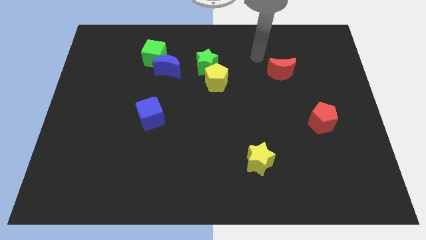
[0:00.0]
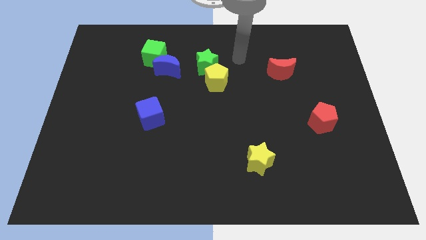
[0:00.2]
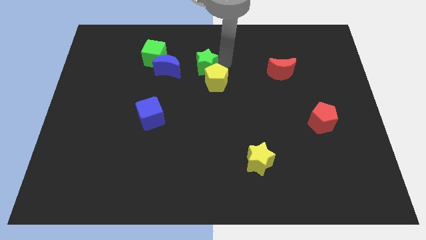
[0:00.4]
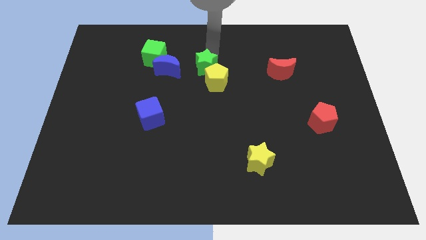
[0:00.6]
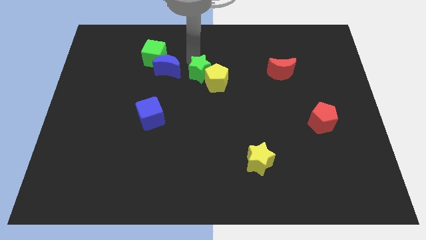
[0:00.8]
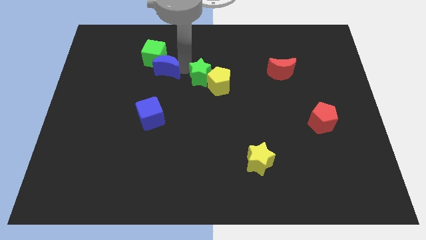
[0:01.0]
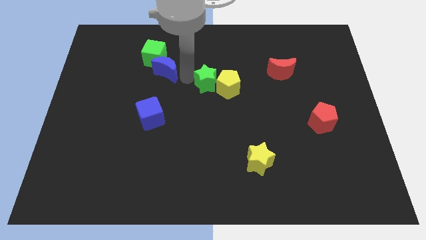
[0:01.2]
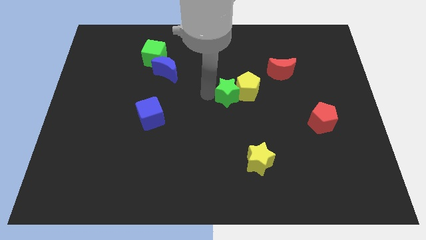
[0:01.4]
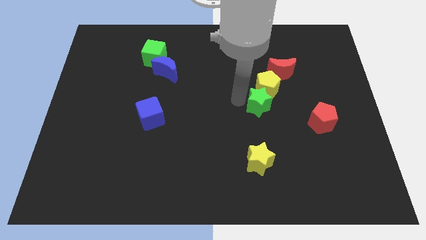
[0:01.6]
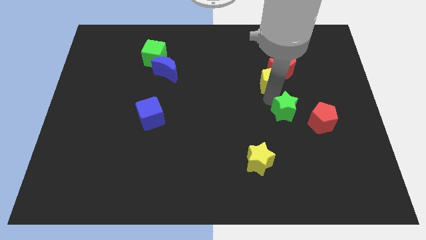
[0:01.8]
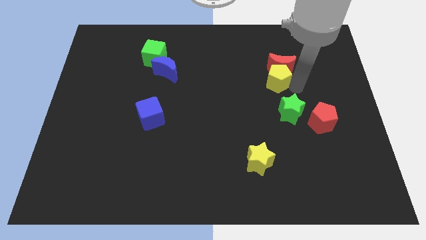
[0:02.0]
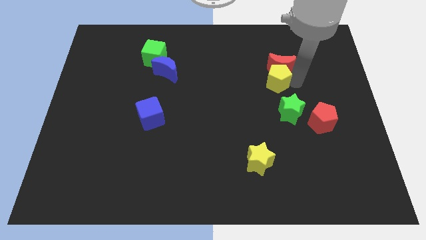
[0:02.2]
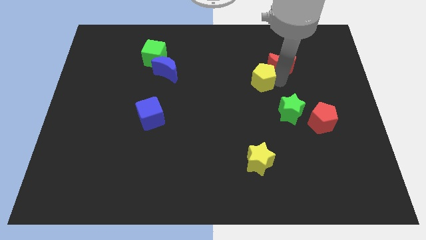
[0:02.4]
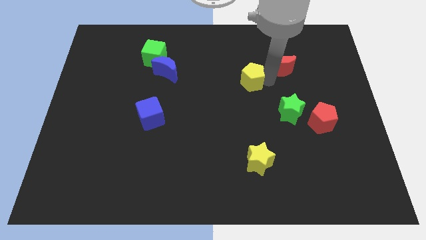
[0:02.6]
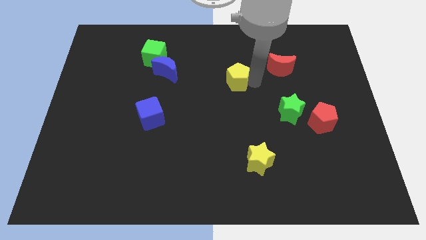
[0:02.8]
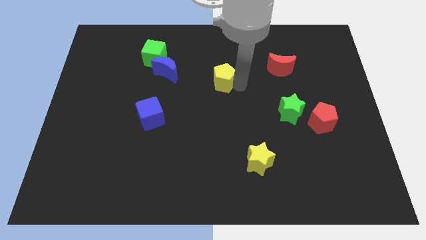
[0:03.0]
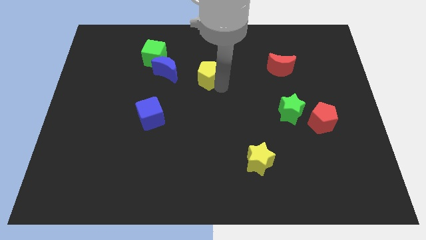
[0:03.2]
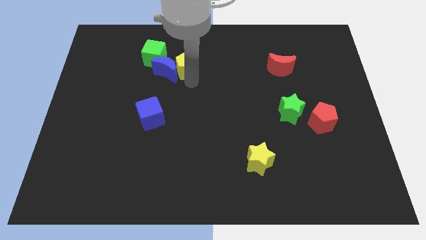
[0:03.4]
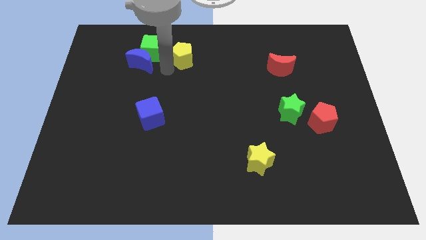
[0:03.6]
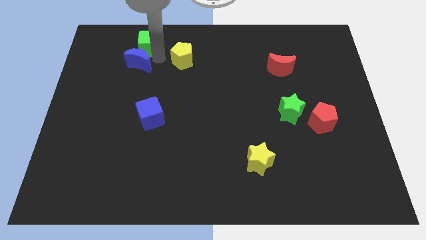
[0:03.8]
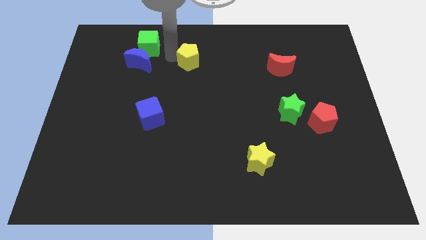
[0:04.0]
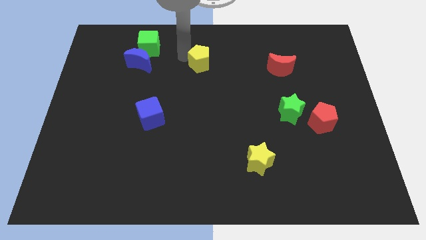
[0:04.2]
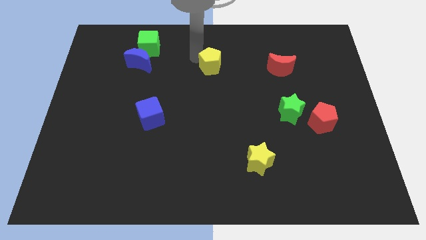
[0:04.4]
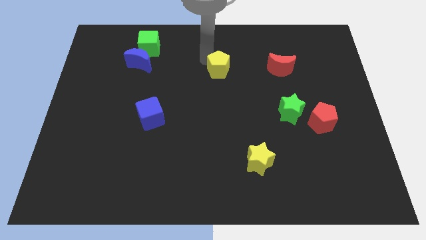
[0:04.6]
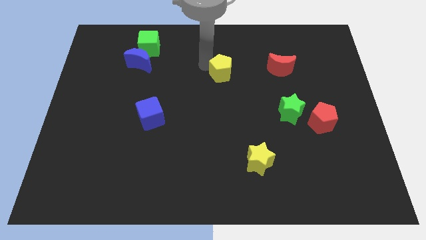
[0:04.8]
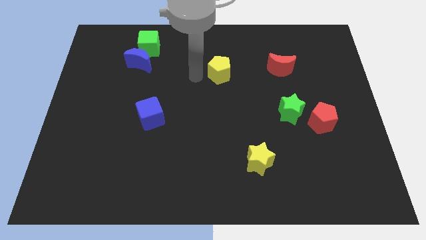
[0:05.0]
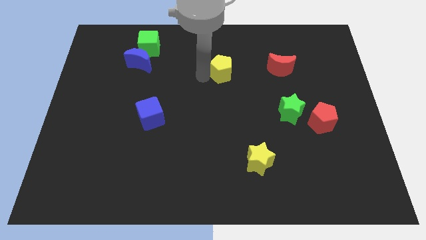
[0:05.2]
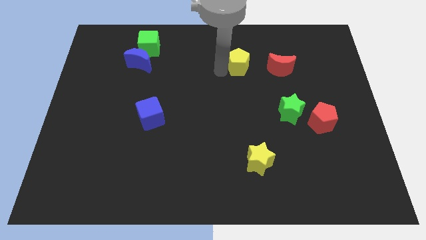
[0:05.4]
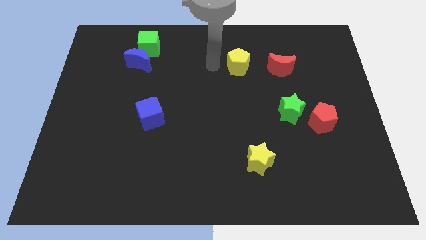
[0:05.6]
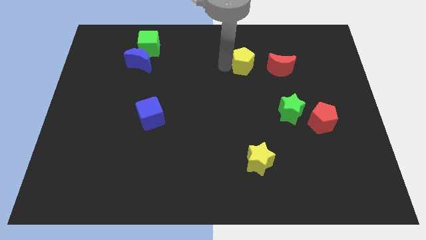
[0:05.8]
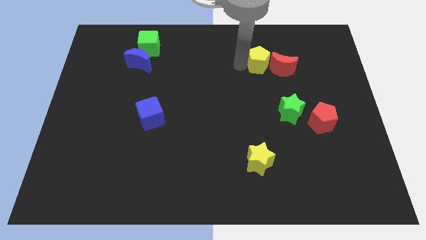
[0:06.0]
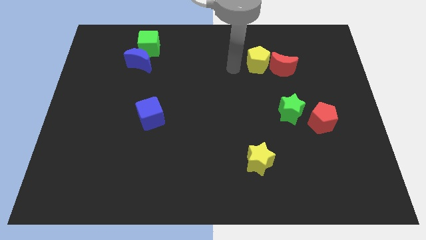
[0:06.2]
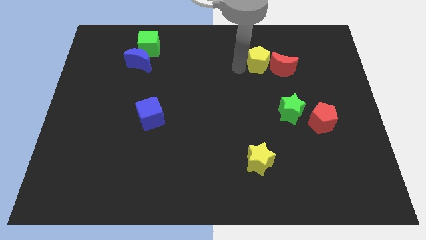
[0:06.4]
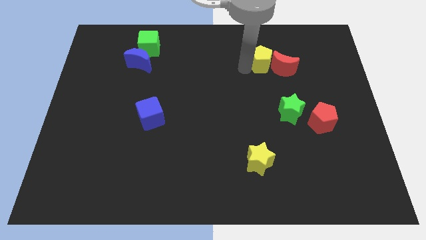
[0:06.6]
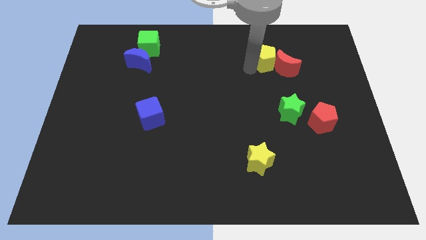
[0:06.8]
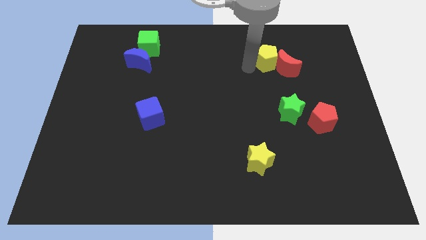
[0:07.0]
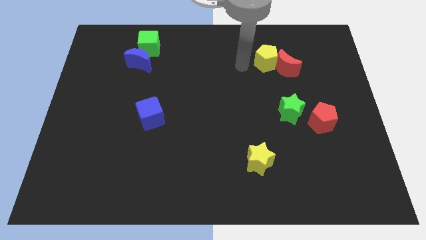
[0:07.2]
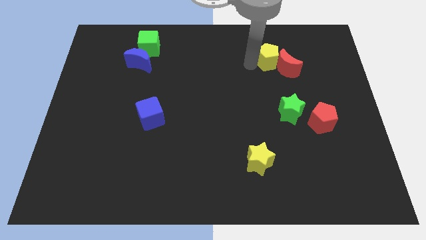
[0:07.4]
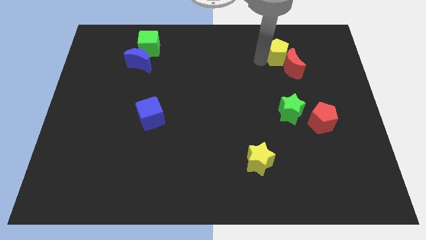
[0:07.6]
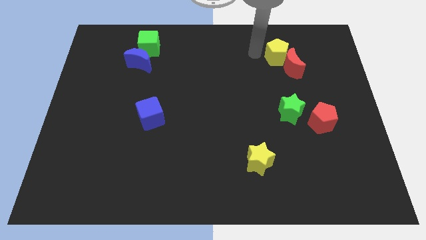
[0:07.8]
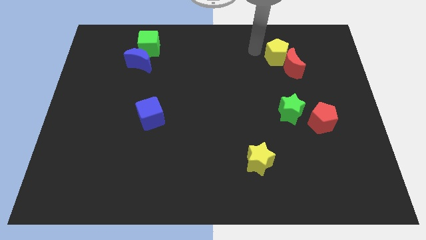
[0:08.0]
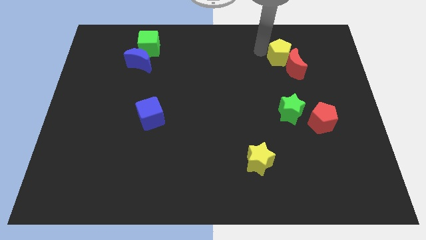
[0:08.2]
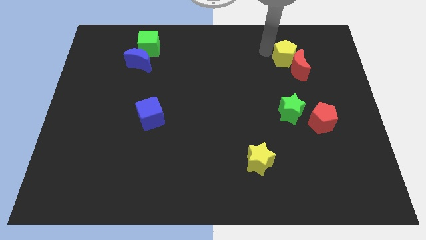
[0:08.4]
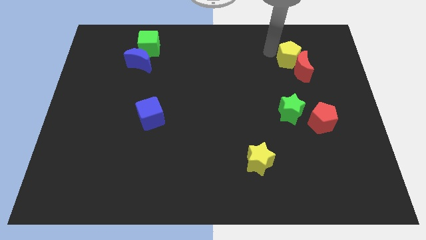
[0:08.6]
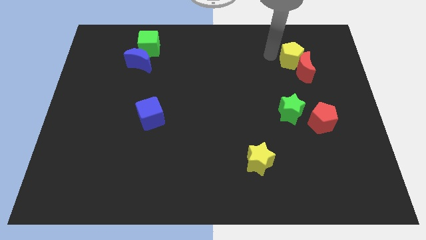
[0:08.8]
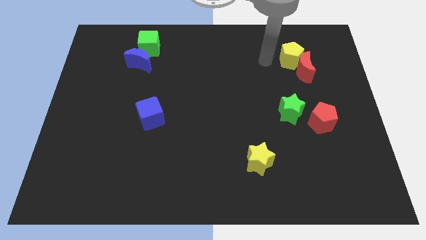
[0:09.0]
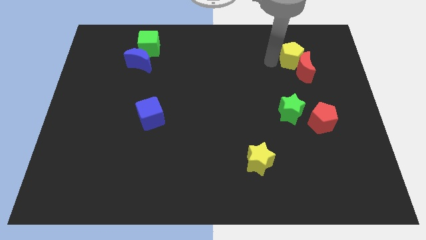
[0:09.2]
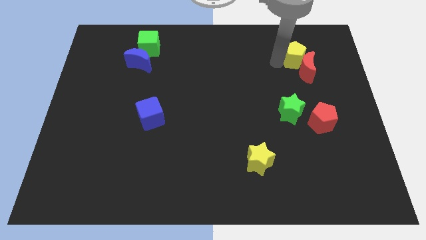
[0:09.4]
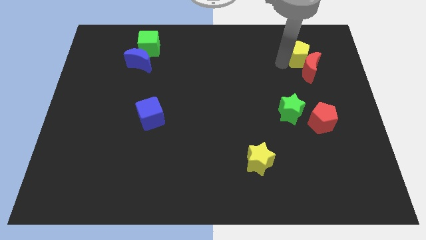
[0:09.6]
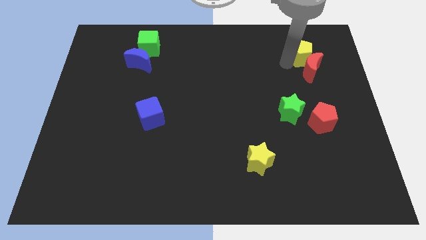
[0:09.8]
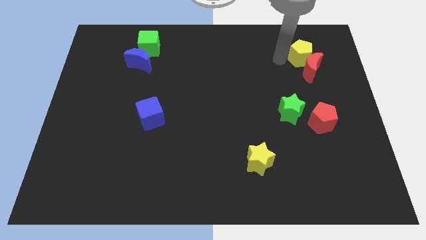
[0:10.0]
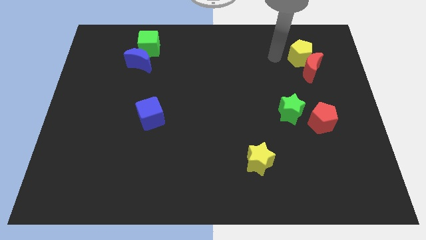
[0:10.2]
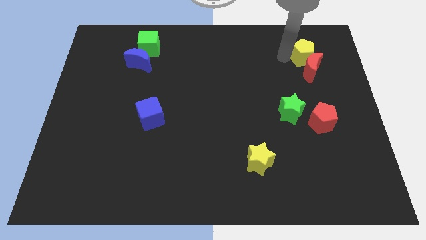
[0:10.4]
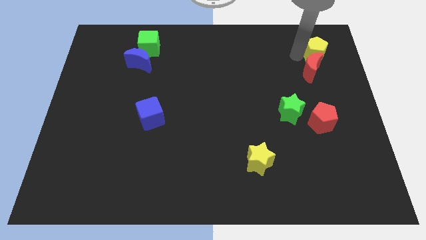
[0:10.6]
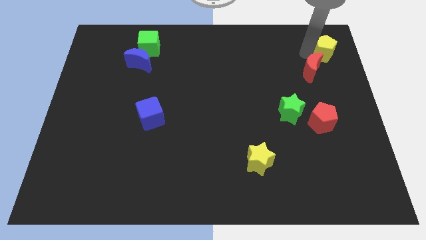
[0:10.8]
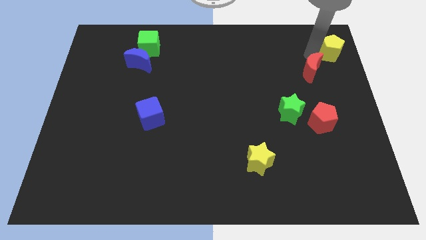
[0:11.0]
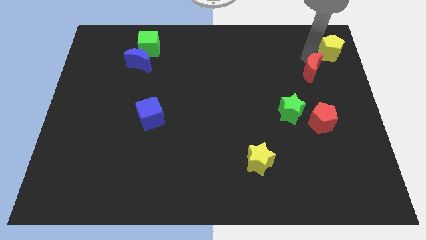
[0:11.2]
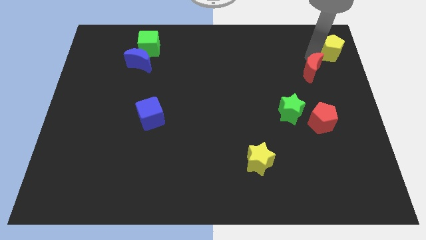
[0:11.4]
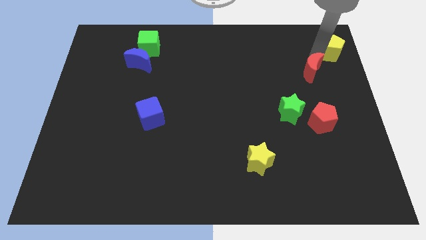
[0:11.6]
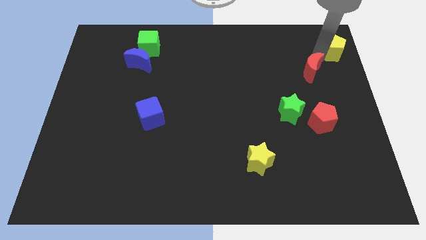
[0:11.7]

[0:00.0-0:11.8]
slide the yellow pentagon to the upper right corner

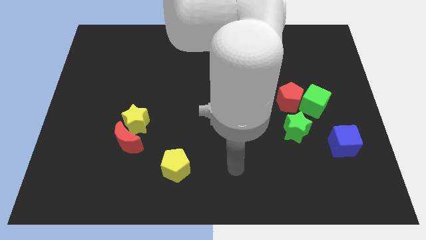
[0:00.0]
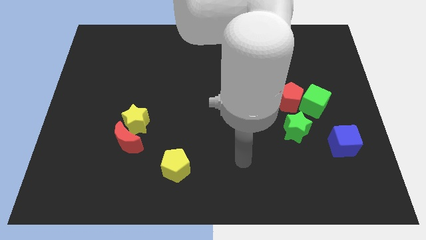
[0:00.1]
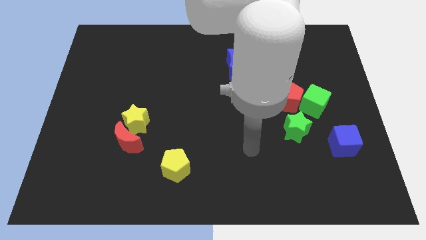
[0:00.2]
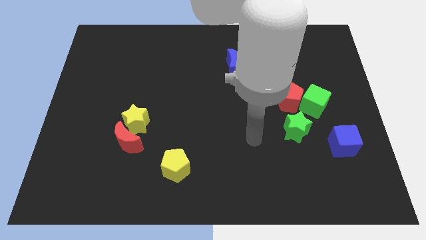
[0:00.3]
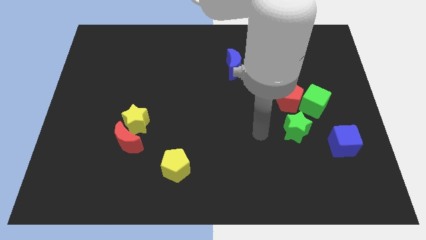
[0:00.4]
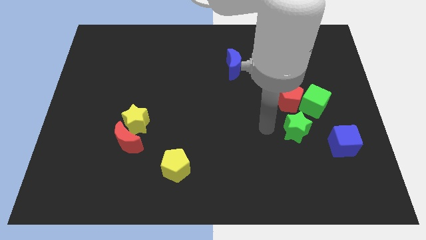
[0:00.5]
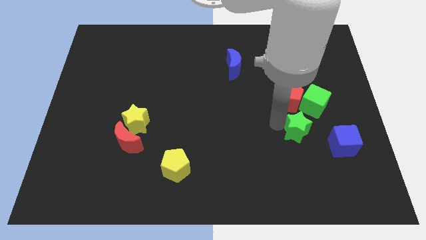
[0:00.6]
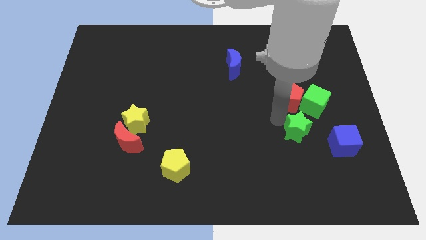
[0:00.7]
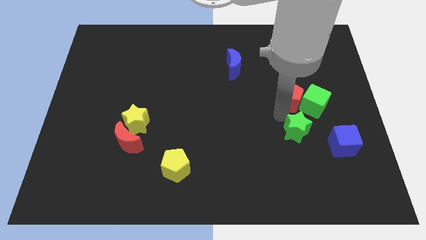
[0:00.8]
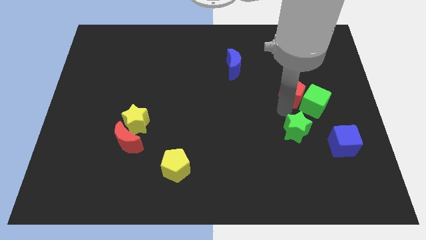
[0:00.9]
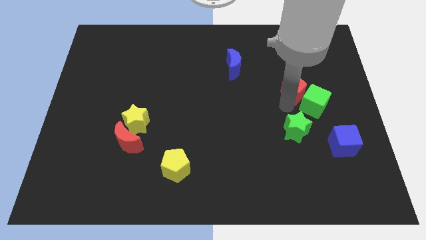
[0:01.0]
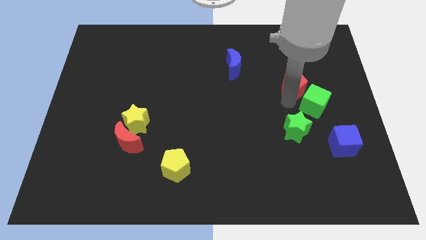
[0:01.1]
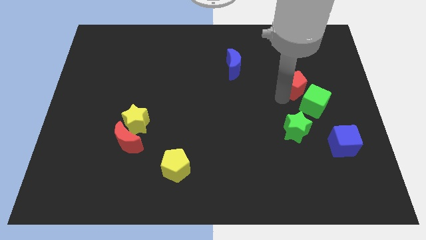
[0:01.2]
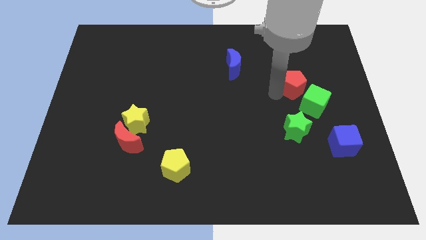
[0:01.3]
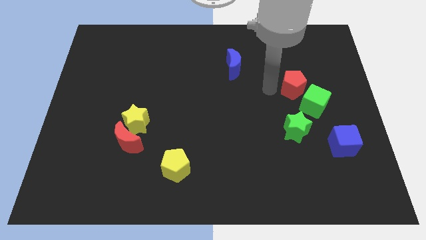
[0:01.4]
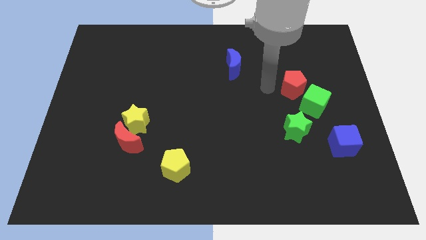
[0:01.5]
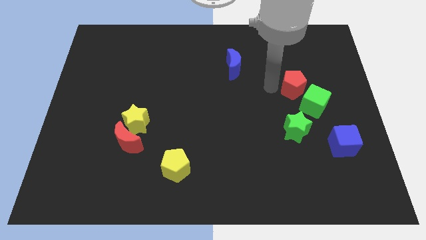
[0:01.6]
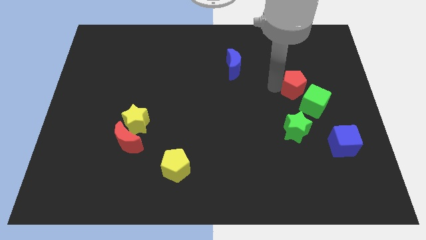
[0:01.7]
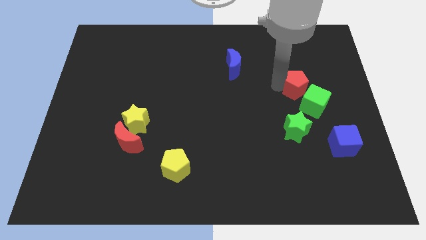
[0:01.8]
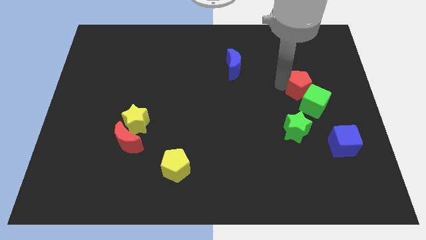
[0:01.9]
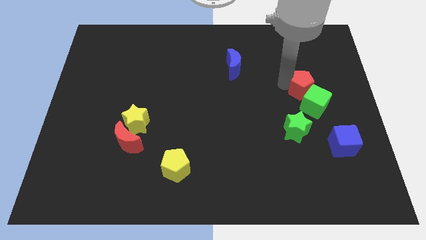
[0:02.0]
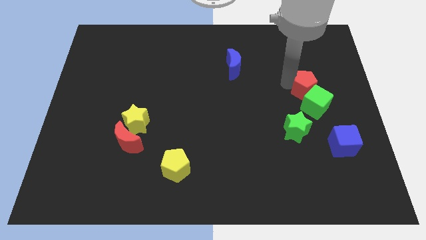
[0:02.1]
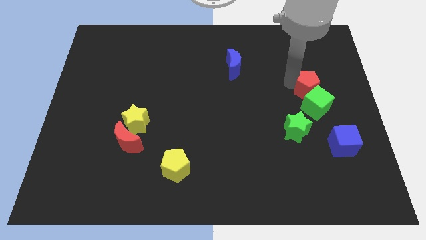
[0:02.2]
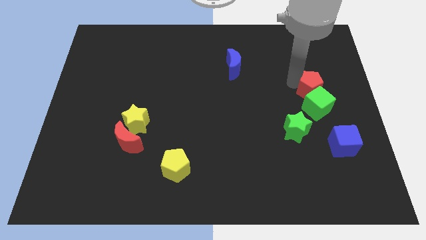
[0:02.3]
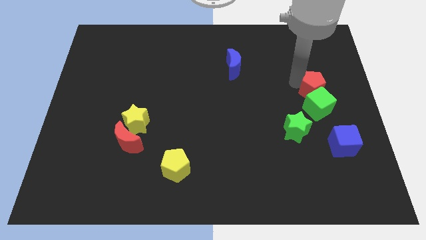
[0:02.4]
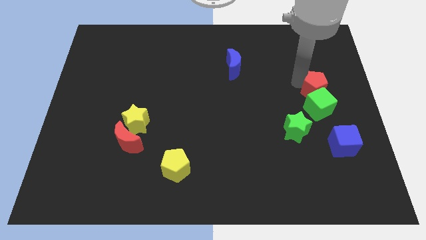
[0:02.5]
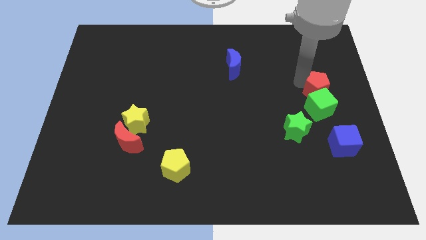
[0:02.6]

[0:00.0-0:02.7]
move the red pentagon to the right side of the board
